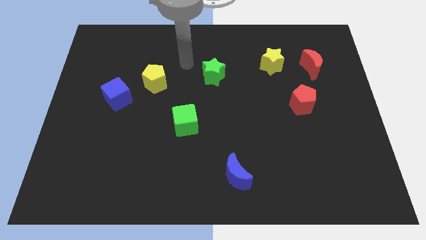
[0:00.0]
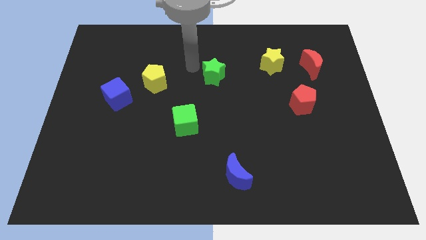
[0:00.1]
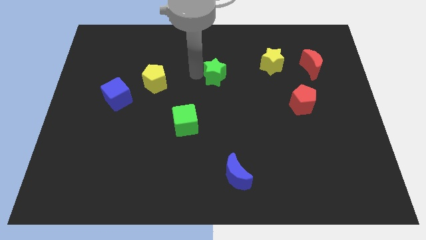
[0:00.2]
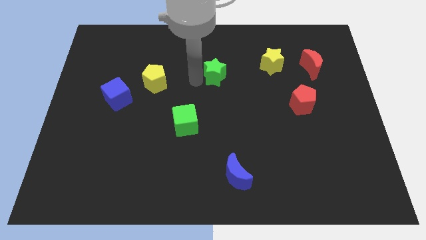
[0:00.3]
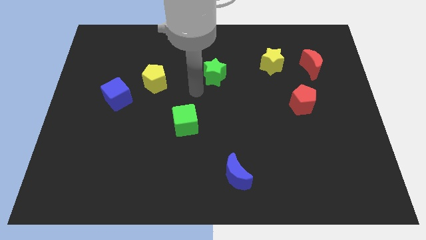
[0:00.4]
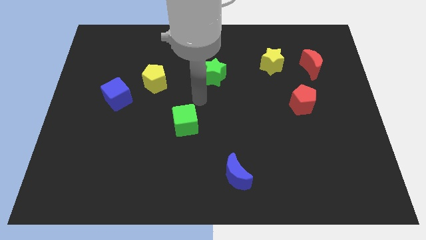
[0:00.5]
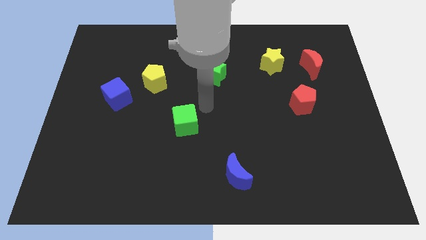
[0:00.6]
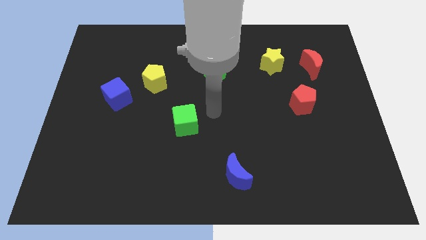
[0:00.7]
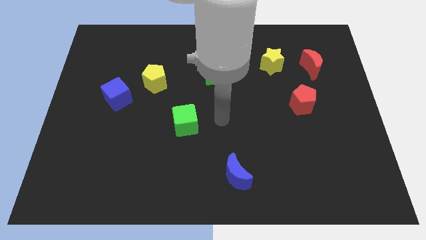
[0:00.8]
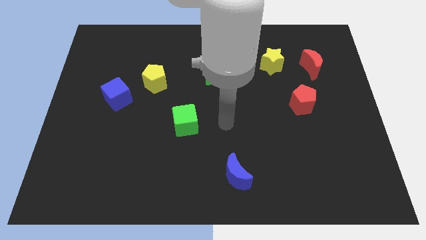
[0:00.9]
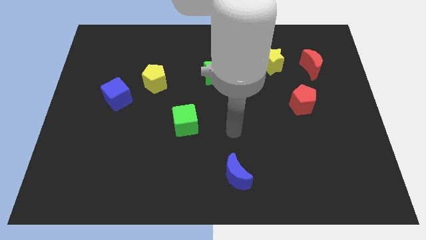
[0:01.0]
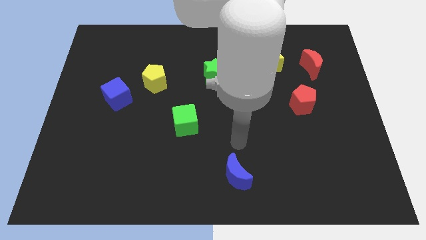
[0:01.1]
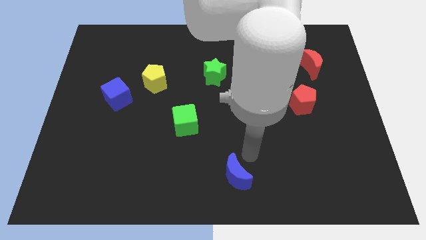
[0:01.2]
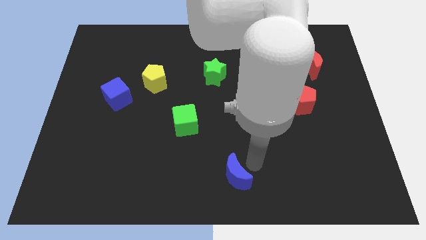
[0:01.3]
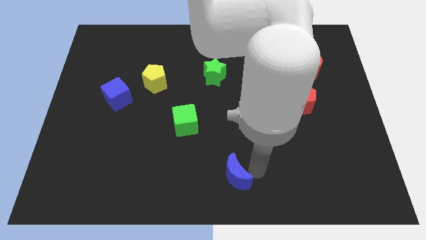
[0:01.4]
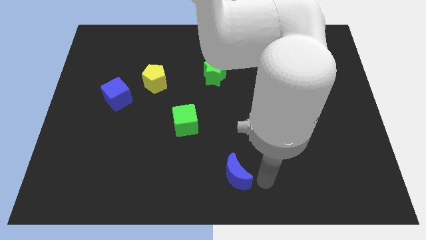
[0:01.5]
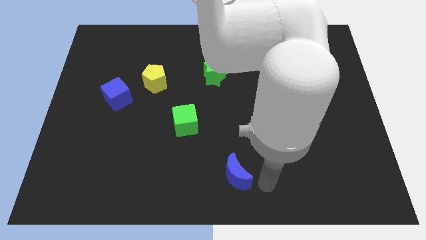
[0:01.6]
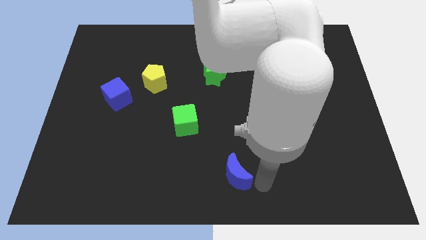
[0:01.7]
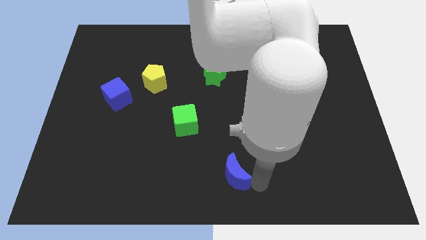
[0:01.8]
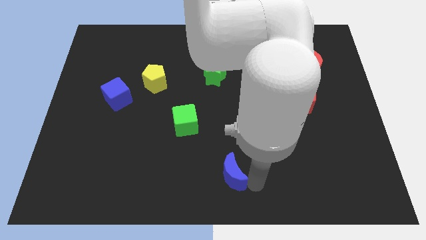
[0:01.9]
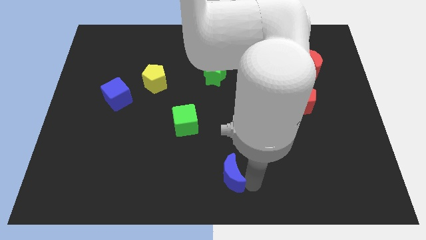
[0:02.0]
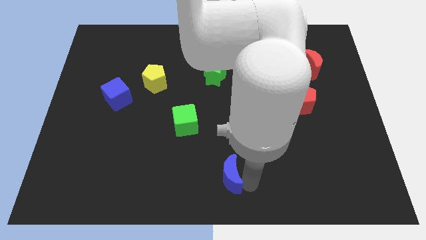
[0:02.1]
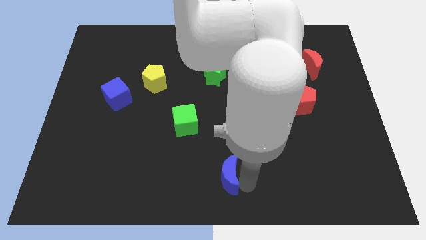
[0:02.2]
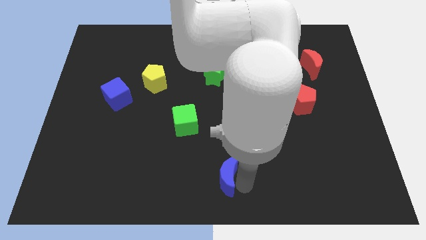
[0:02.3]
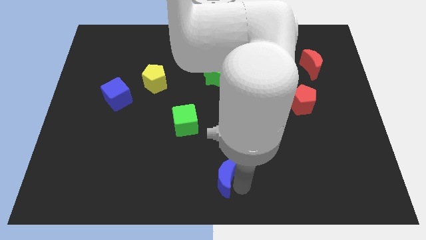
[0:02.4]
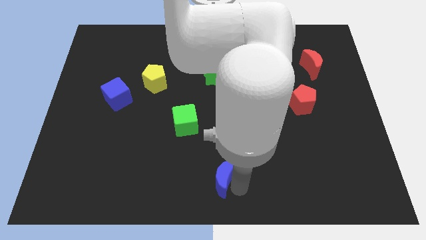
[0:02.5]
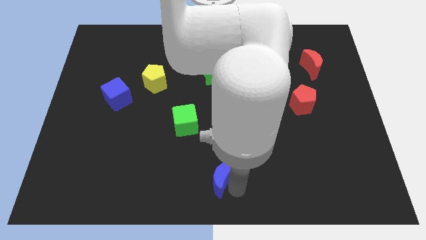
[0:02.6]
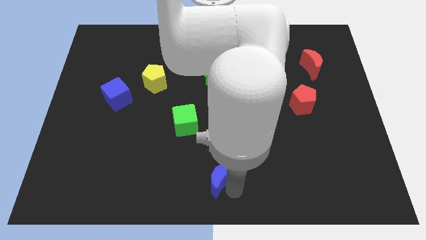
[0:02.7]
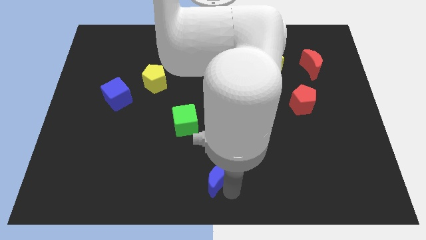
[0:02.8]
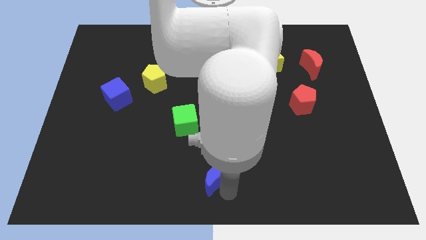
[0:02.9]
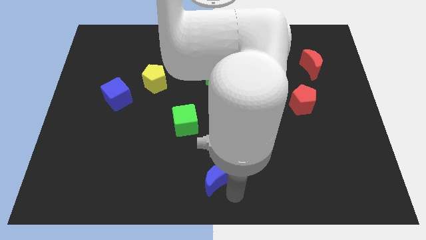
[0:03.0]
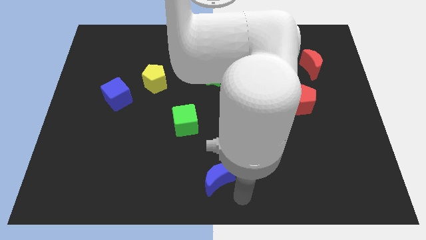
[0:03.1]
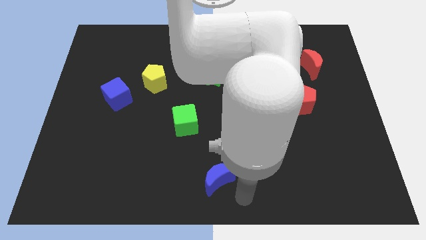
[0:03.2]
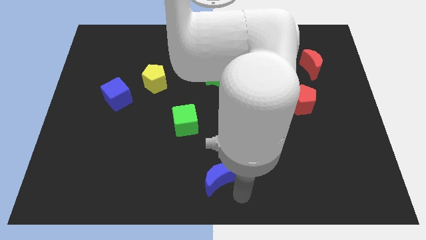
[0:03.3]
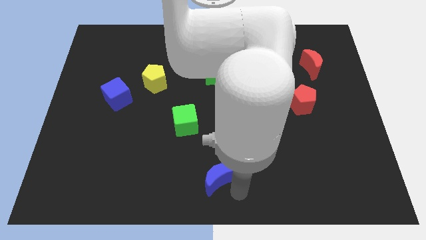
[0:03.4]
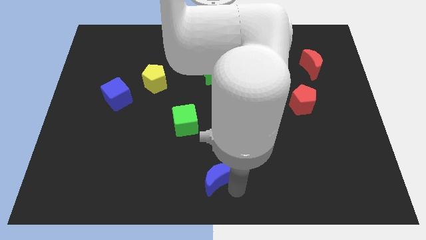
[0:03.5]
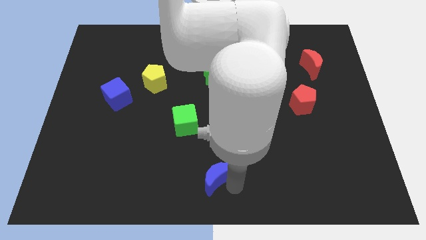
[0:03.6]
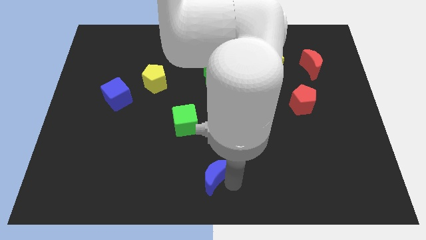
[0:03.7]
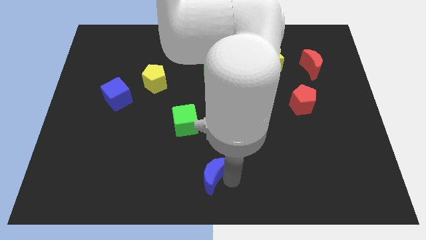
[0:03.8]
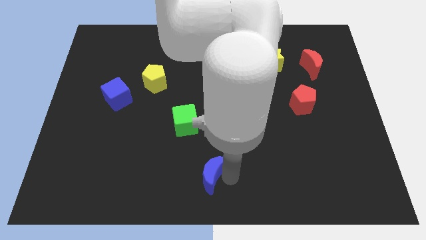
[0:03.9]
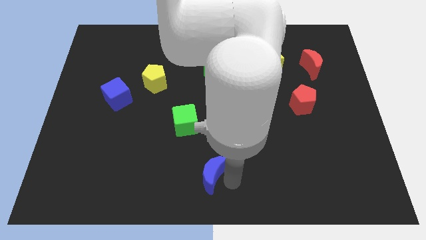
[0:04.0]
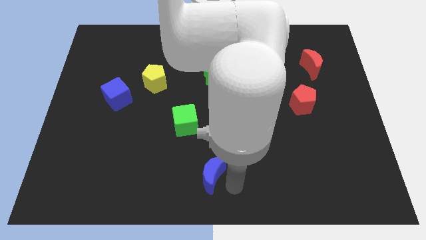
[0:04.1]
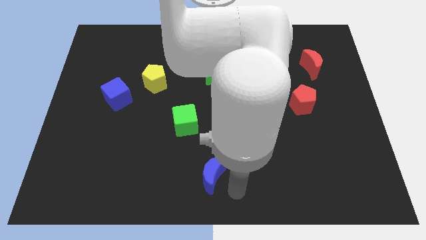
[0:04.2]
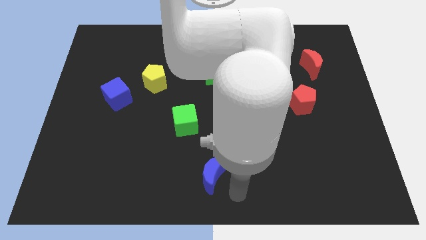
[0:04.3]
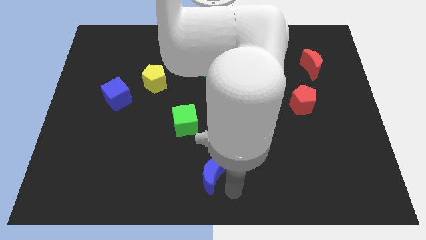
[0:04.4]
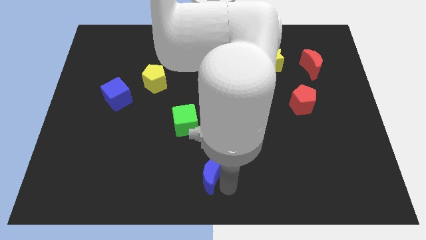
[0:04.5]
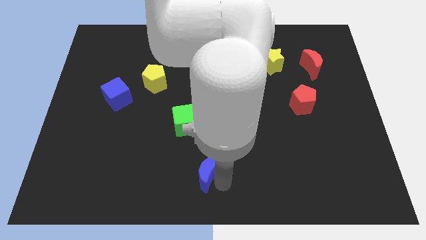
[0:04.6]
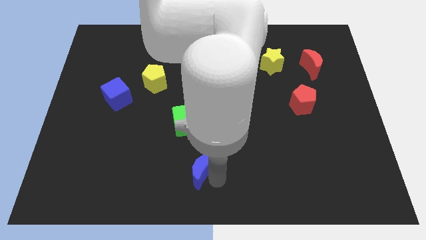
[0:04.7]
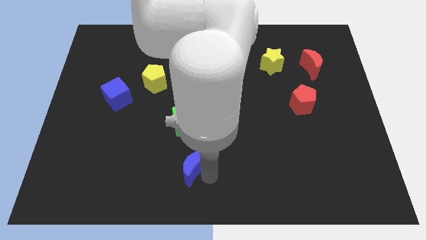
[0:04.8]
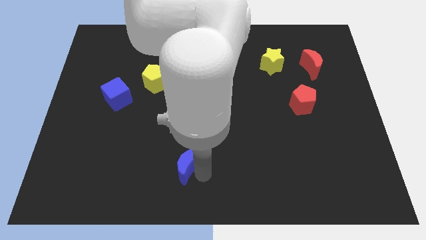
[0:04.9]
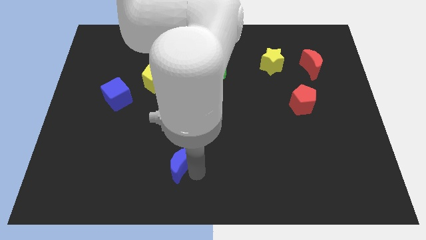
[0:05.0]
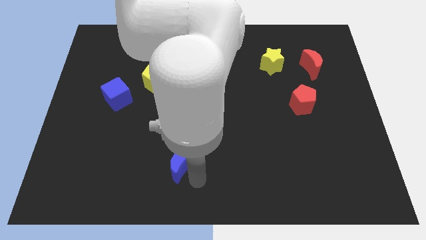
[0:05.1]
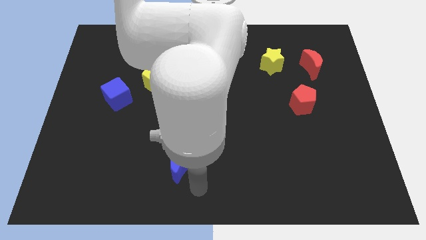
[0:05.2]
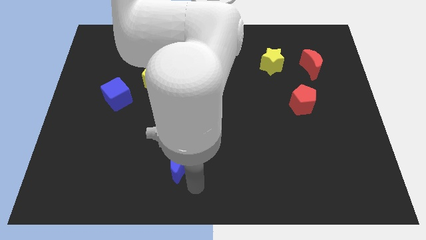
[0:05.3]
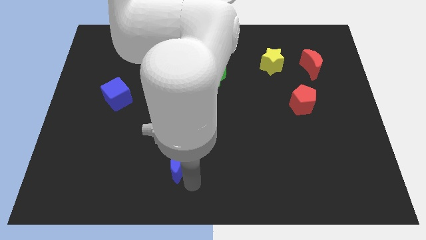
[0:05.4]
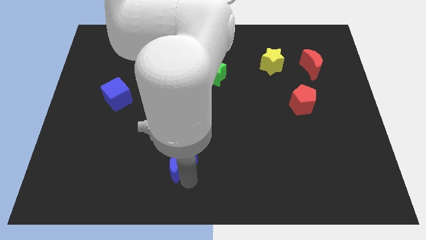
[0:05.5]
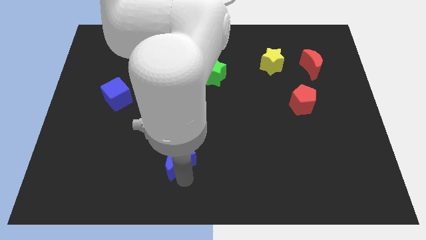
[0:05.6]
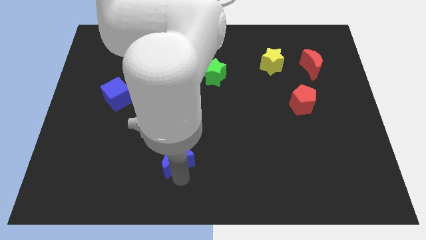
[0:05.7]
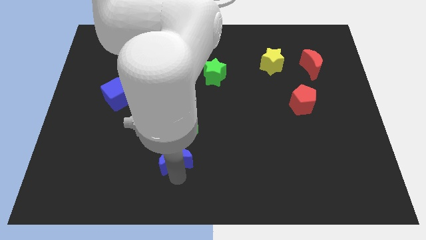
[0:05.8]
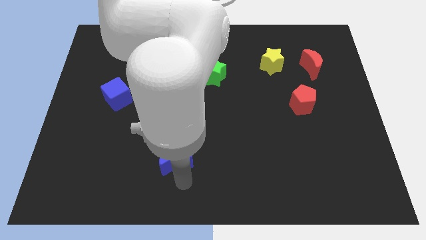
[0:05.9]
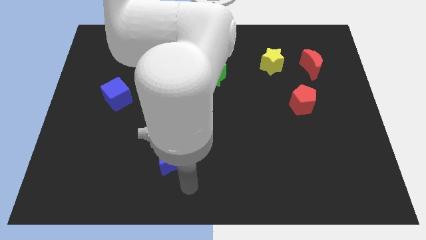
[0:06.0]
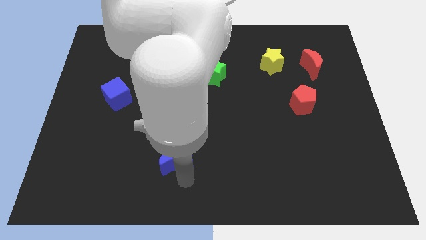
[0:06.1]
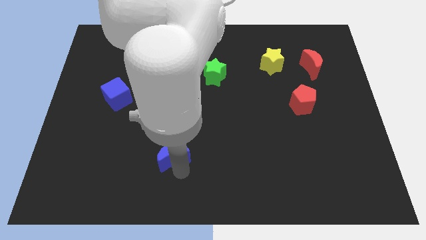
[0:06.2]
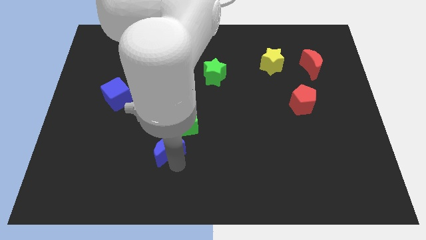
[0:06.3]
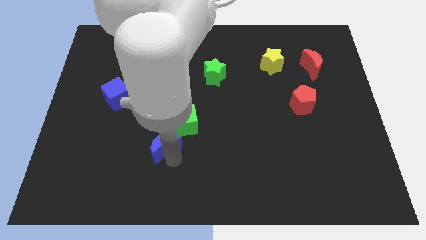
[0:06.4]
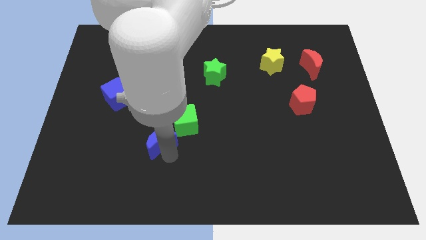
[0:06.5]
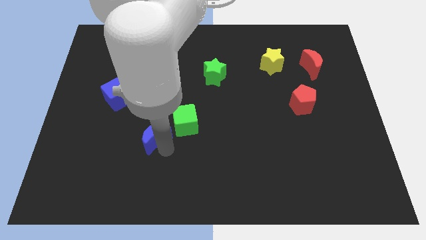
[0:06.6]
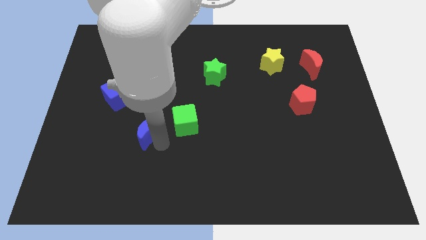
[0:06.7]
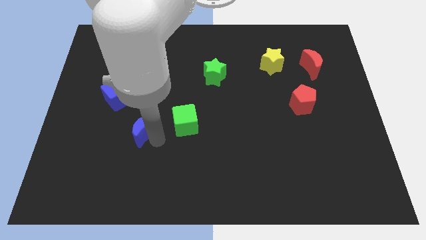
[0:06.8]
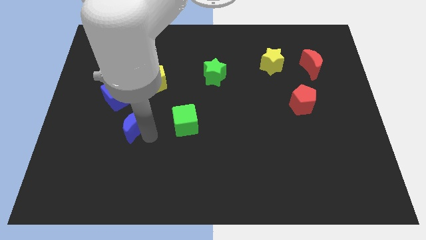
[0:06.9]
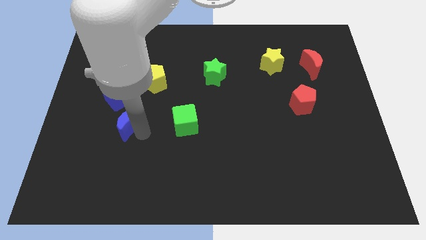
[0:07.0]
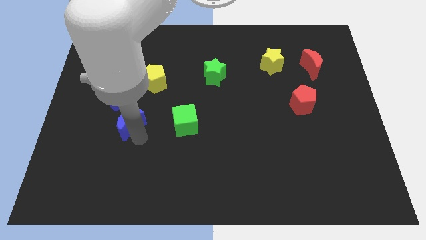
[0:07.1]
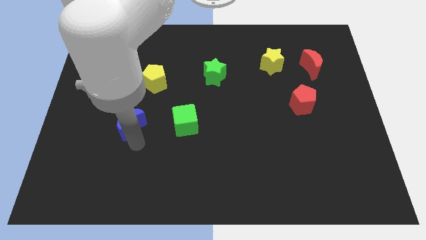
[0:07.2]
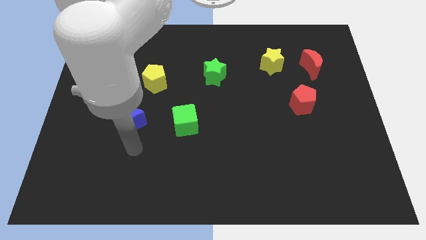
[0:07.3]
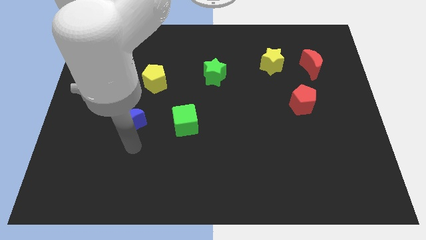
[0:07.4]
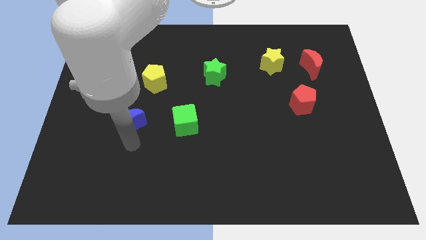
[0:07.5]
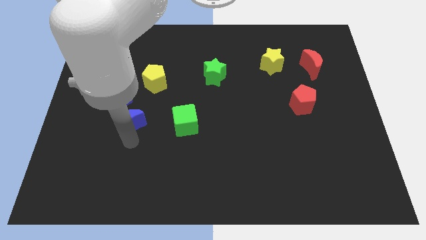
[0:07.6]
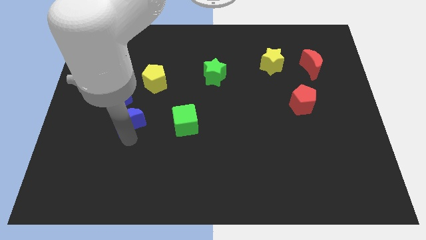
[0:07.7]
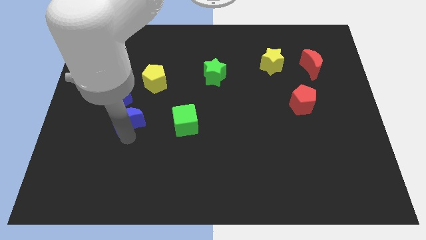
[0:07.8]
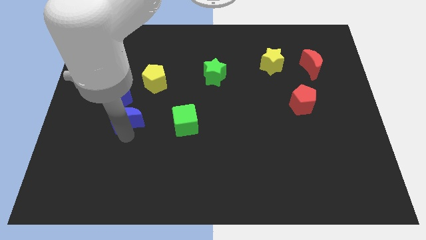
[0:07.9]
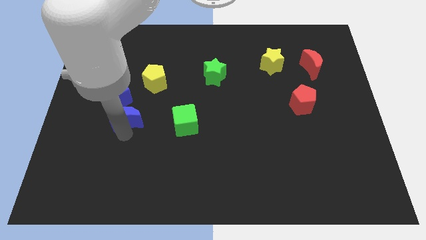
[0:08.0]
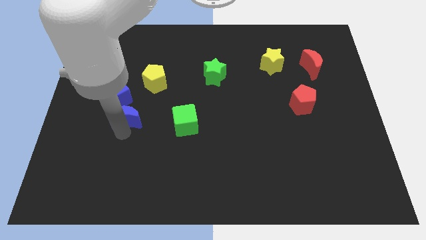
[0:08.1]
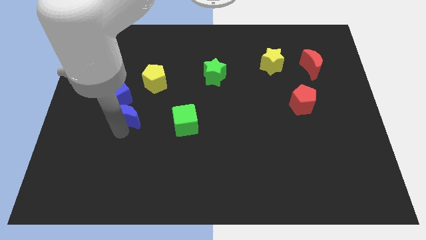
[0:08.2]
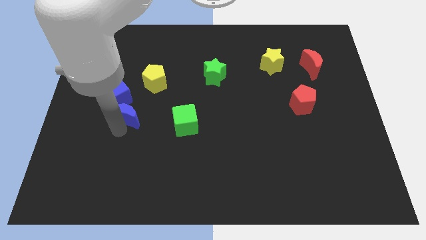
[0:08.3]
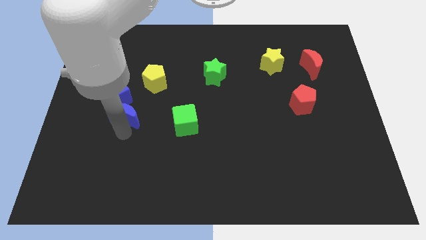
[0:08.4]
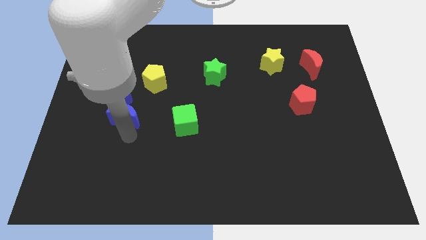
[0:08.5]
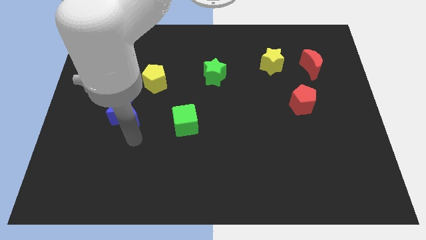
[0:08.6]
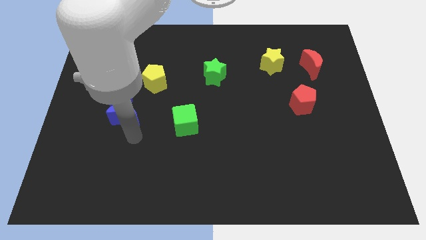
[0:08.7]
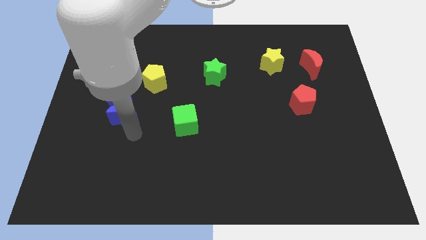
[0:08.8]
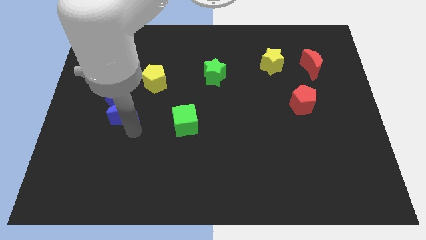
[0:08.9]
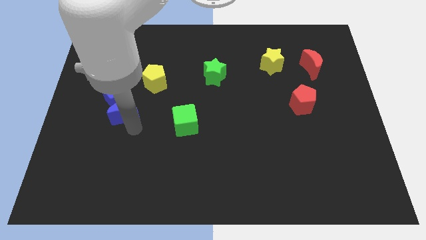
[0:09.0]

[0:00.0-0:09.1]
slide the blue moon towards the blue cube
